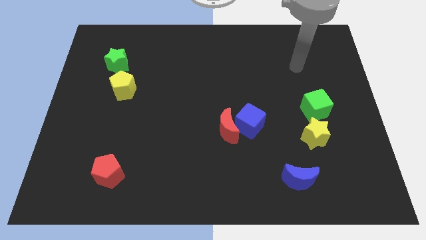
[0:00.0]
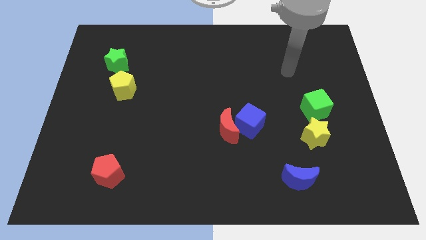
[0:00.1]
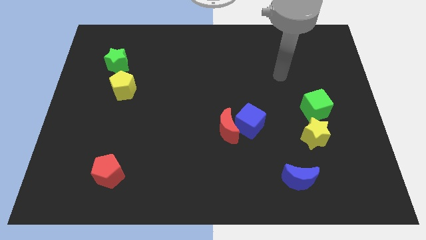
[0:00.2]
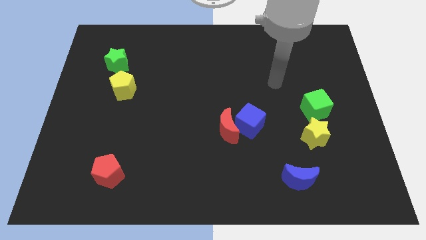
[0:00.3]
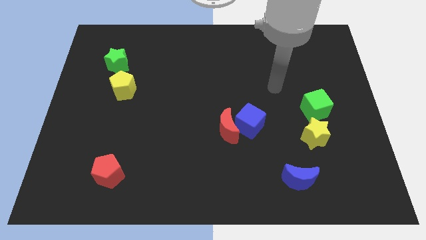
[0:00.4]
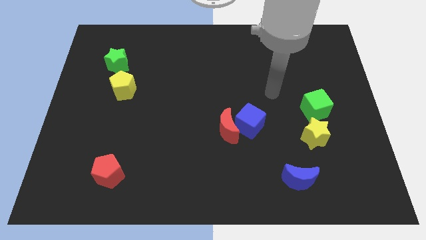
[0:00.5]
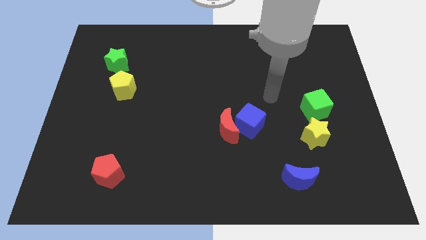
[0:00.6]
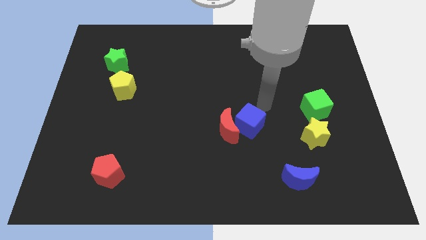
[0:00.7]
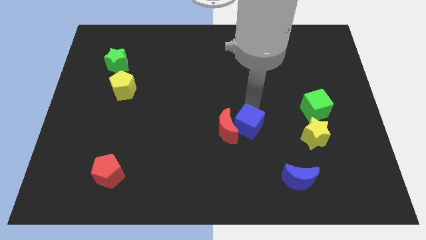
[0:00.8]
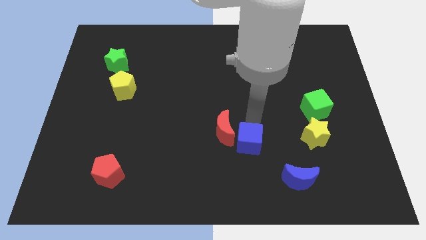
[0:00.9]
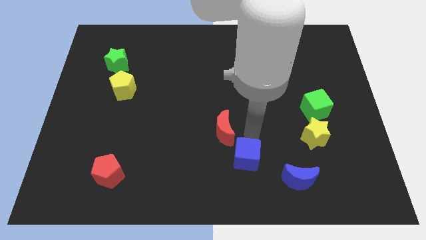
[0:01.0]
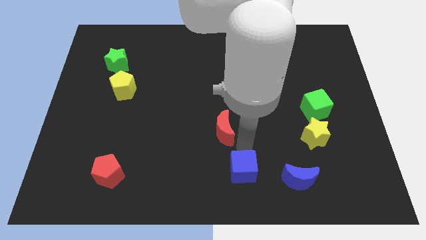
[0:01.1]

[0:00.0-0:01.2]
separate the red moon from the blue cube

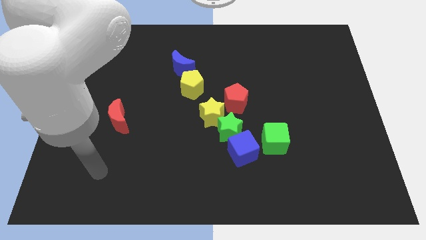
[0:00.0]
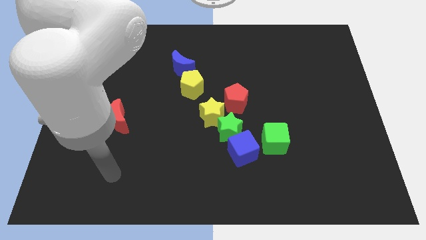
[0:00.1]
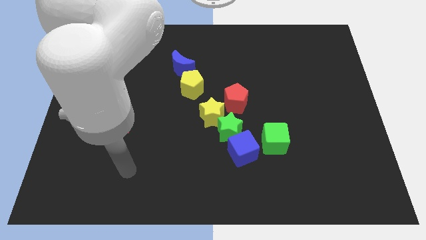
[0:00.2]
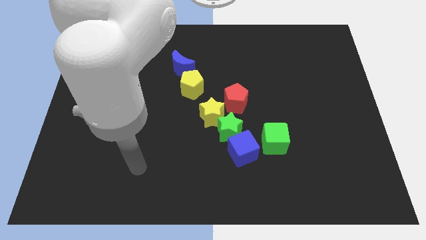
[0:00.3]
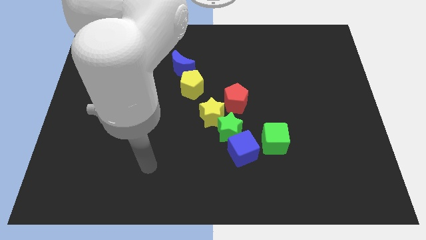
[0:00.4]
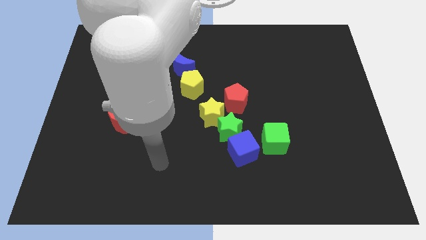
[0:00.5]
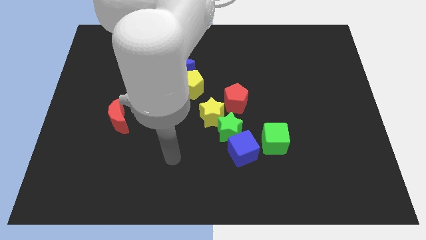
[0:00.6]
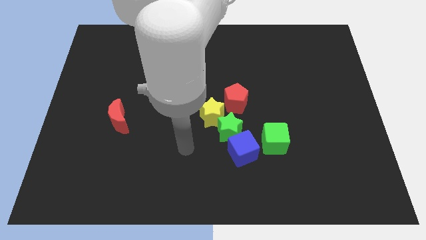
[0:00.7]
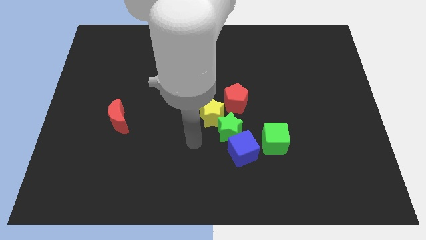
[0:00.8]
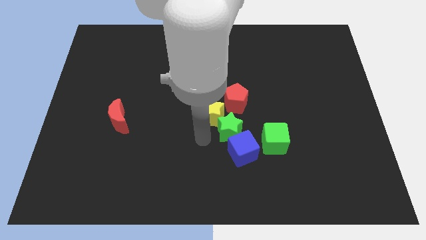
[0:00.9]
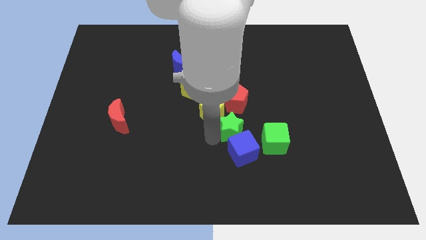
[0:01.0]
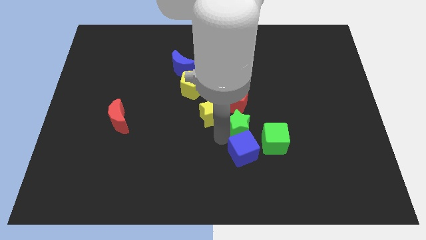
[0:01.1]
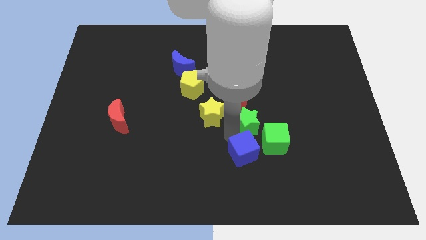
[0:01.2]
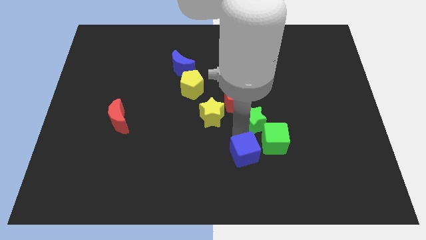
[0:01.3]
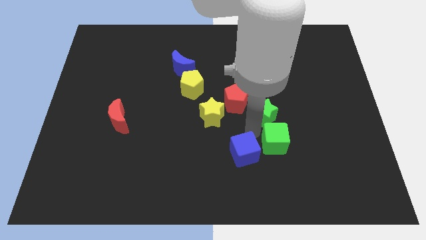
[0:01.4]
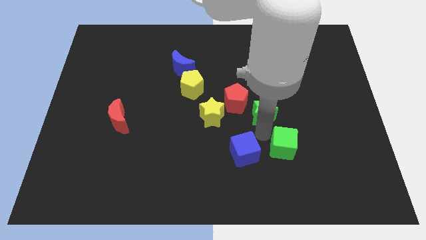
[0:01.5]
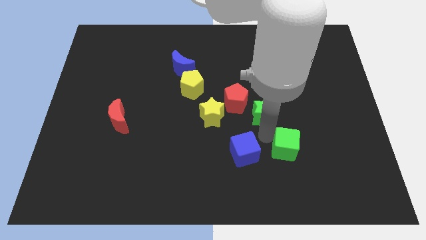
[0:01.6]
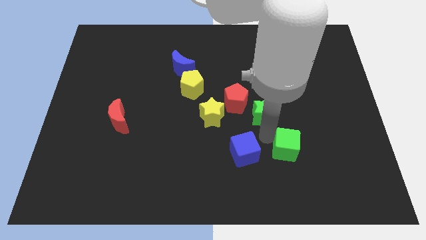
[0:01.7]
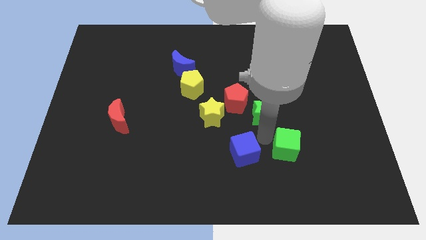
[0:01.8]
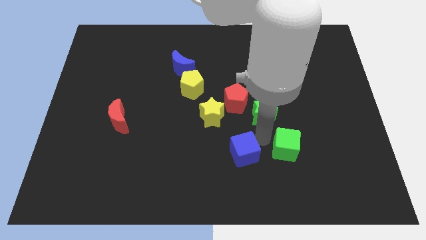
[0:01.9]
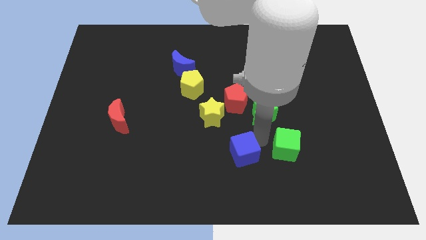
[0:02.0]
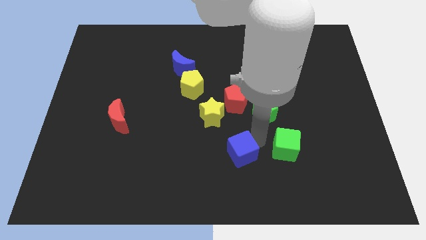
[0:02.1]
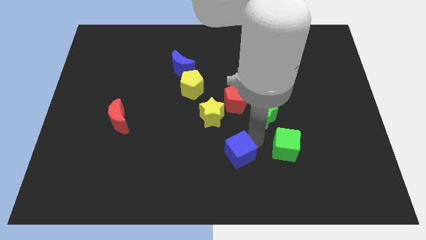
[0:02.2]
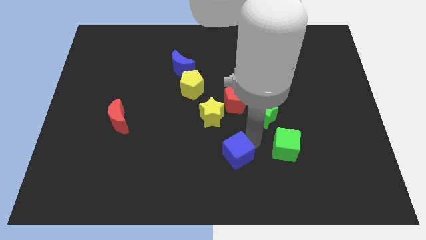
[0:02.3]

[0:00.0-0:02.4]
pull the blue cube apart from the green star and green cube

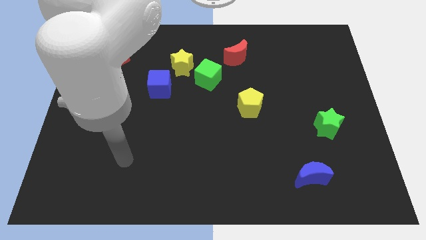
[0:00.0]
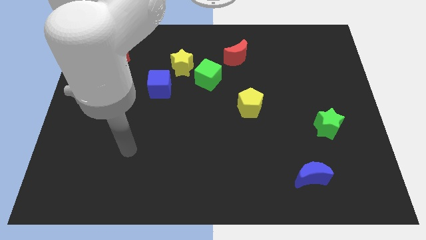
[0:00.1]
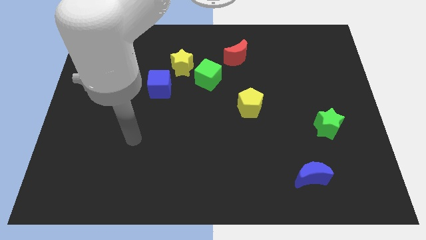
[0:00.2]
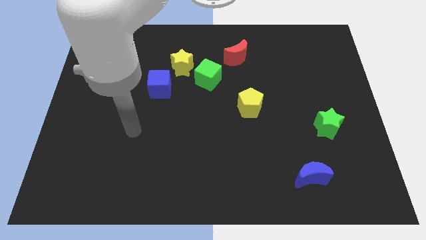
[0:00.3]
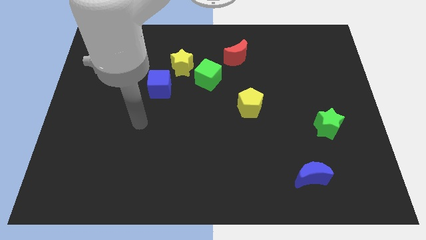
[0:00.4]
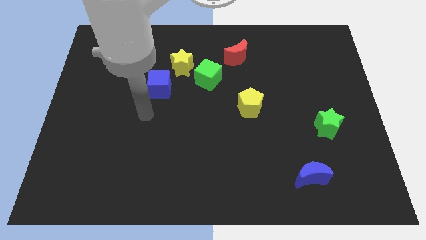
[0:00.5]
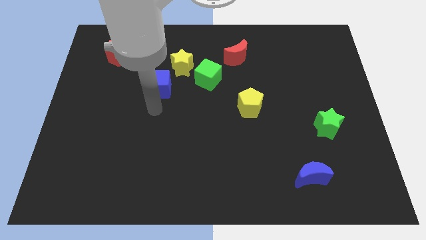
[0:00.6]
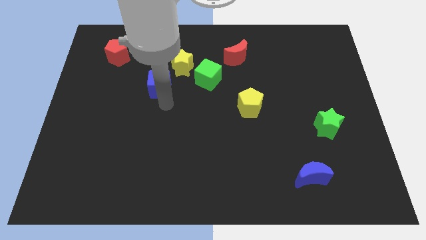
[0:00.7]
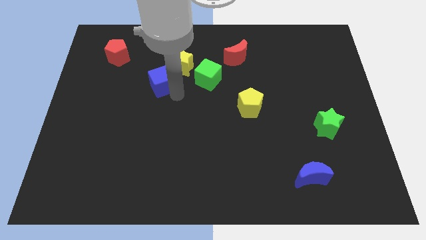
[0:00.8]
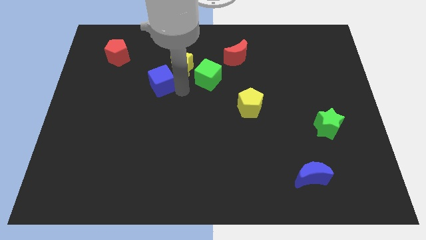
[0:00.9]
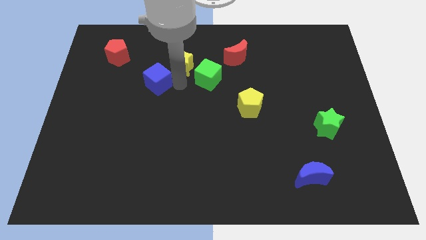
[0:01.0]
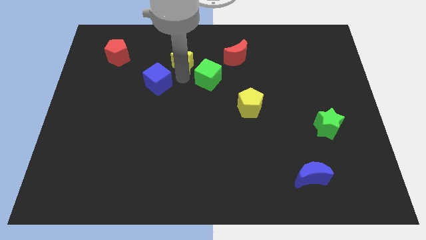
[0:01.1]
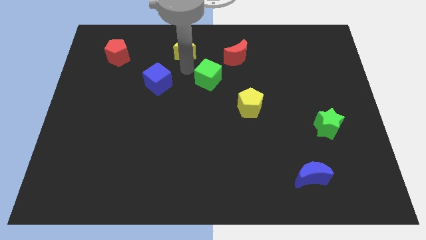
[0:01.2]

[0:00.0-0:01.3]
separate the green cube from the yellow star

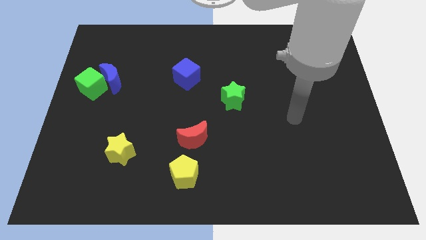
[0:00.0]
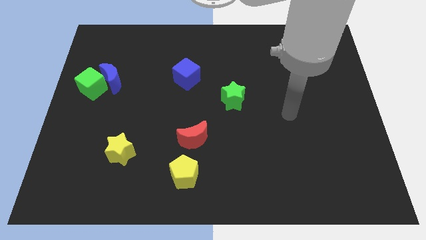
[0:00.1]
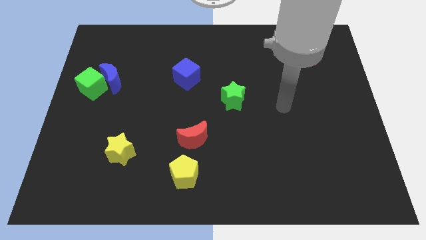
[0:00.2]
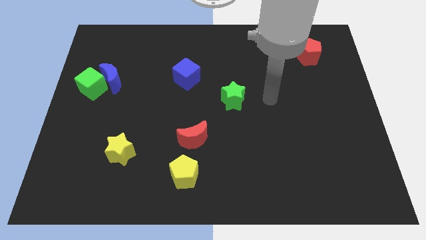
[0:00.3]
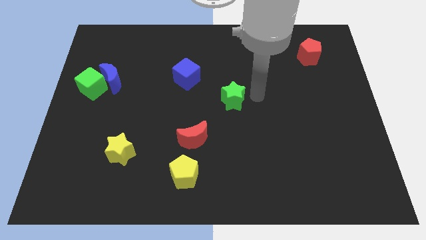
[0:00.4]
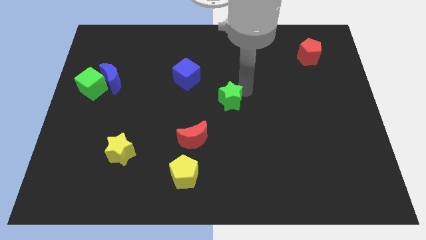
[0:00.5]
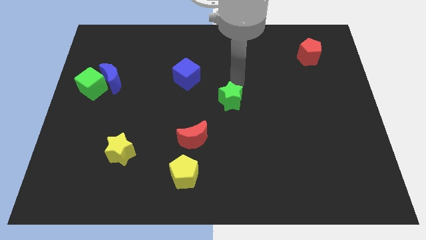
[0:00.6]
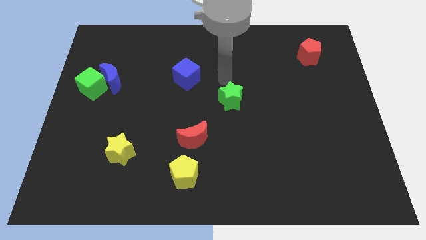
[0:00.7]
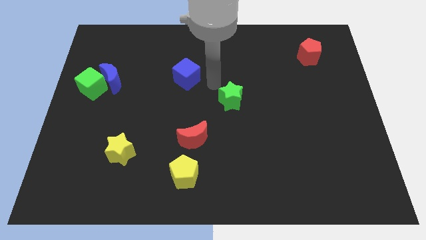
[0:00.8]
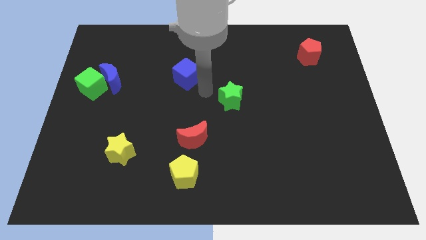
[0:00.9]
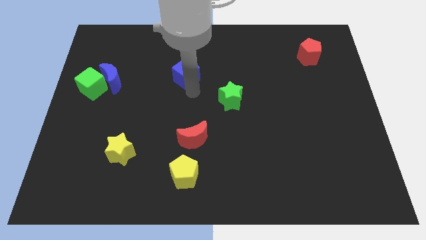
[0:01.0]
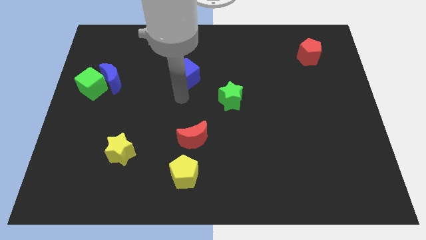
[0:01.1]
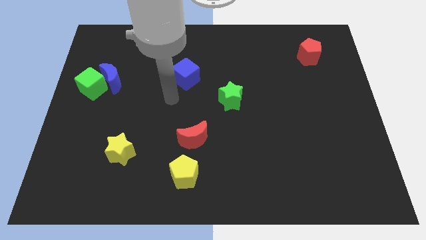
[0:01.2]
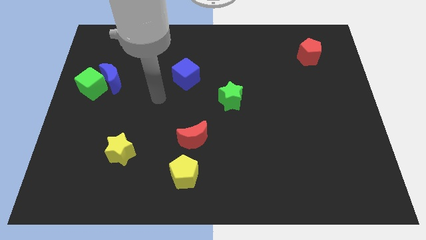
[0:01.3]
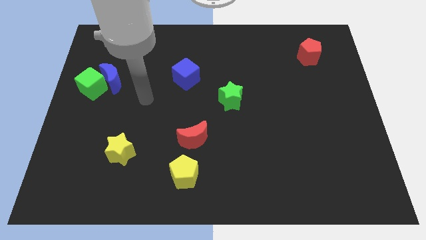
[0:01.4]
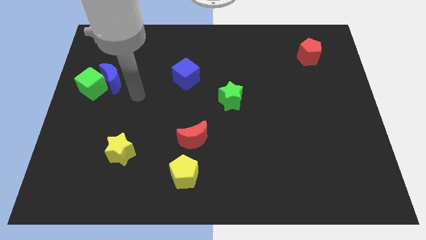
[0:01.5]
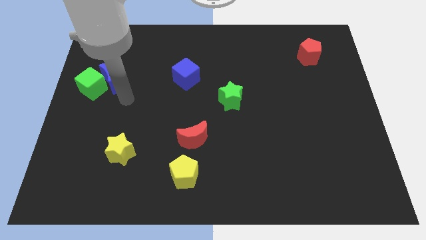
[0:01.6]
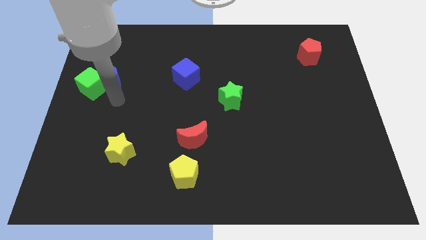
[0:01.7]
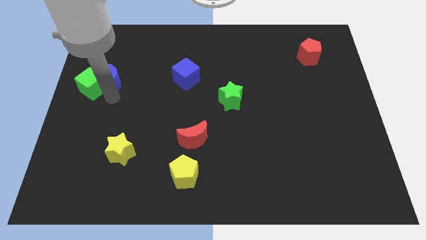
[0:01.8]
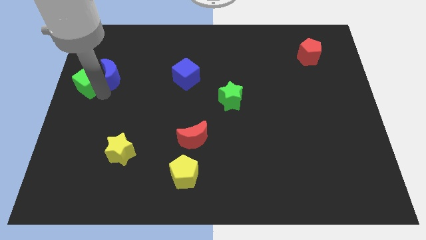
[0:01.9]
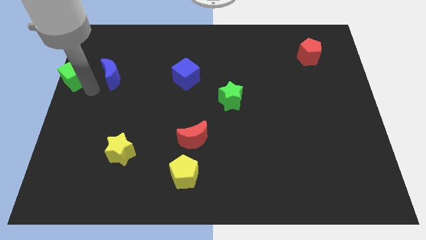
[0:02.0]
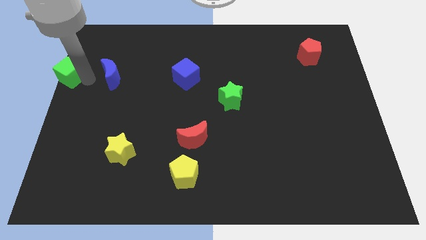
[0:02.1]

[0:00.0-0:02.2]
move the blue moon away from the green cube

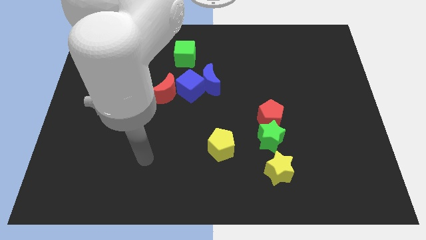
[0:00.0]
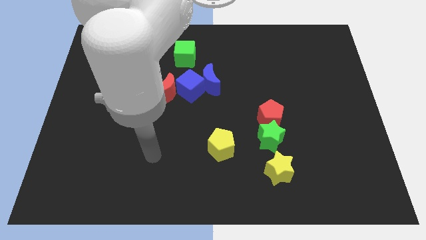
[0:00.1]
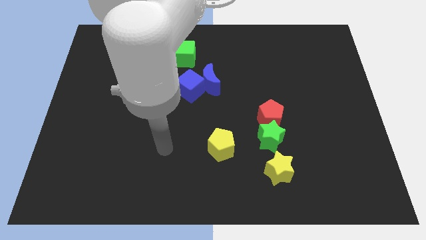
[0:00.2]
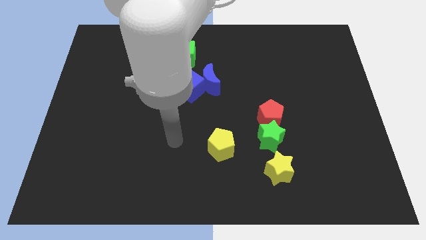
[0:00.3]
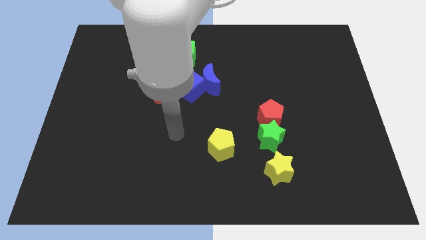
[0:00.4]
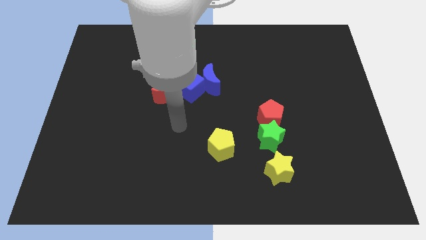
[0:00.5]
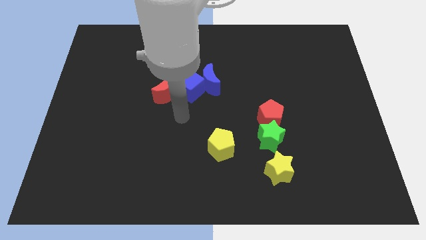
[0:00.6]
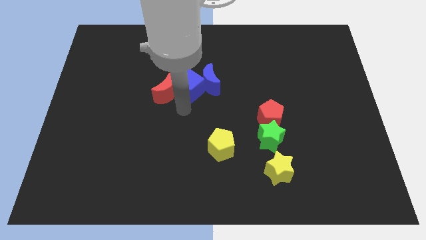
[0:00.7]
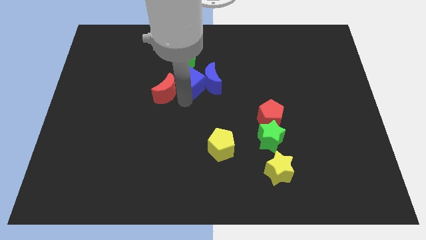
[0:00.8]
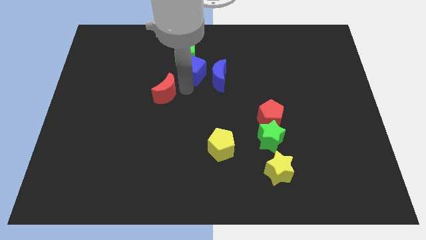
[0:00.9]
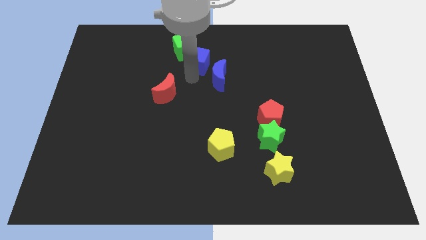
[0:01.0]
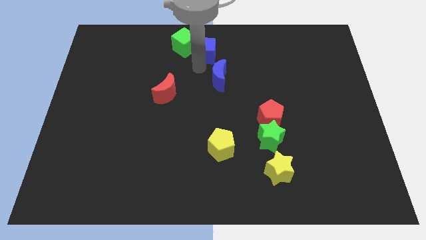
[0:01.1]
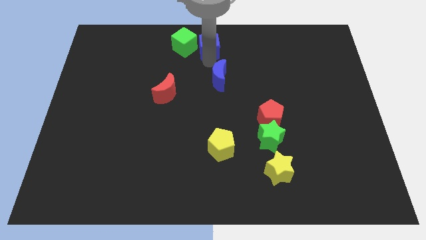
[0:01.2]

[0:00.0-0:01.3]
pull the blue moon apart from the blue cube

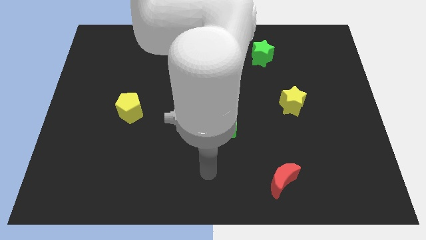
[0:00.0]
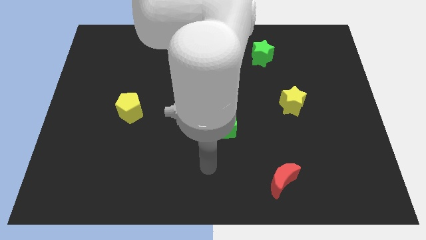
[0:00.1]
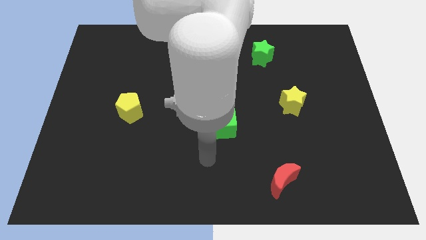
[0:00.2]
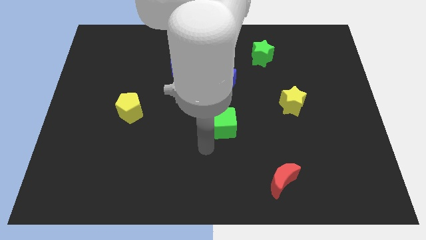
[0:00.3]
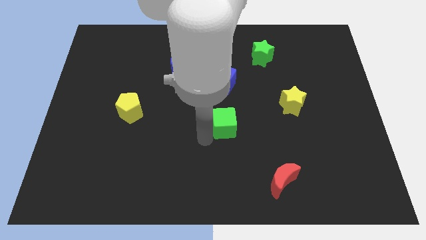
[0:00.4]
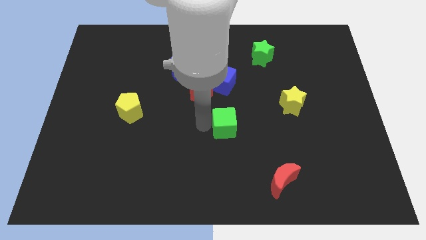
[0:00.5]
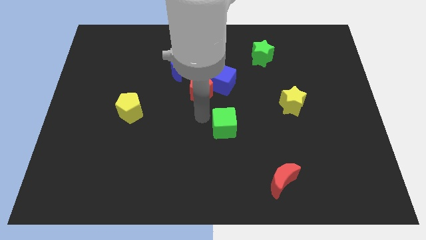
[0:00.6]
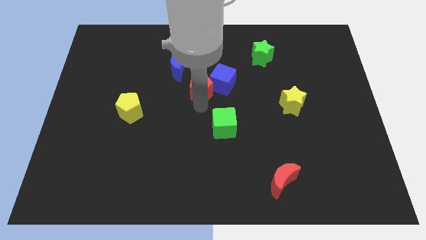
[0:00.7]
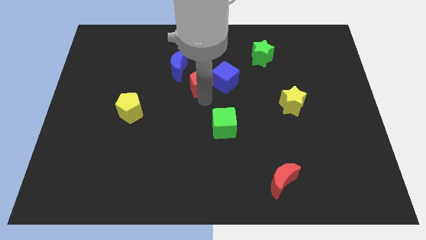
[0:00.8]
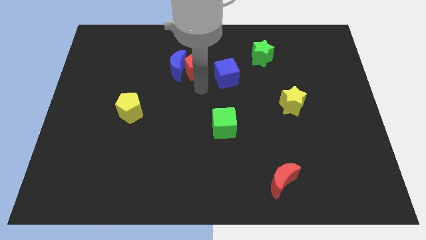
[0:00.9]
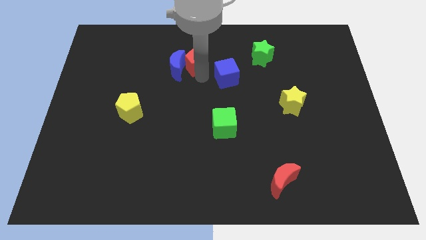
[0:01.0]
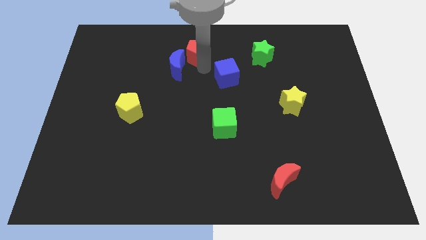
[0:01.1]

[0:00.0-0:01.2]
pull the blue cube apart from the red pentagon
